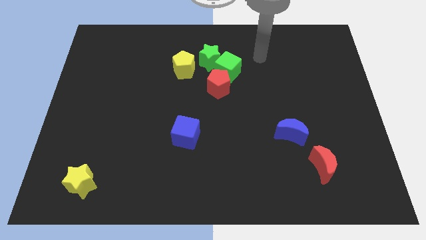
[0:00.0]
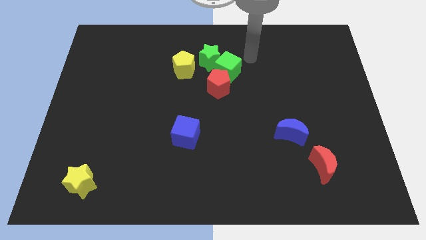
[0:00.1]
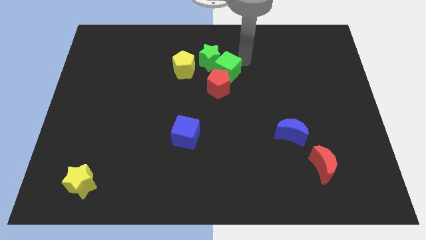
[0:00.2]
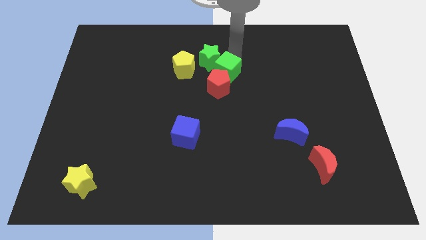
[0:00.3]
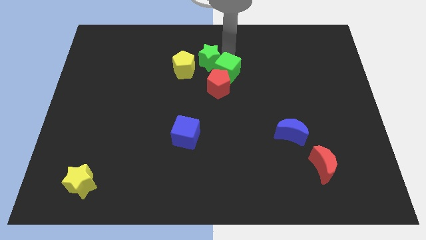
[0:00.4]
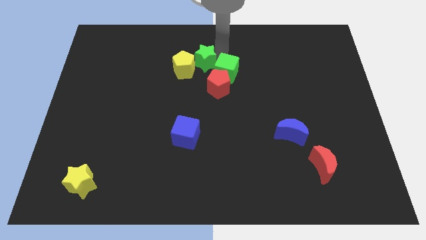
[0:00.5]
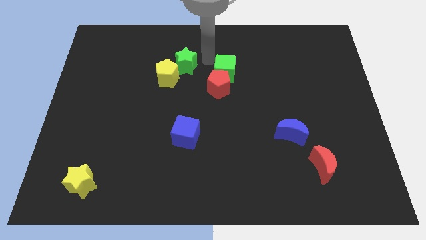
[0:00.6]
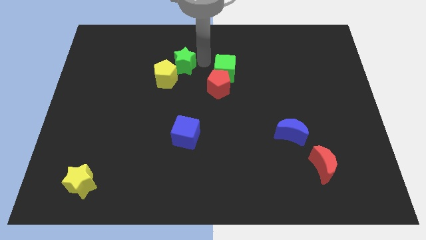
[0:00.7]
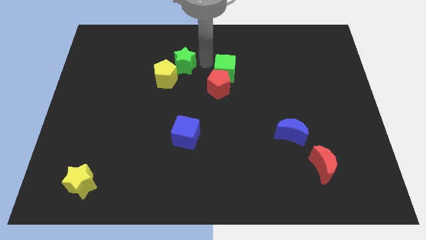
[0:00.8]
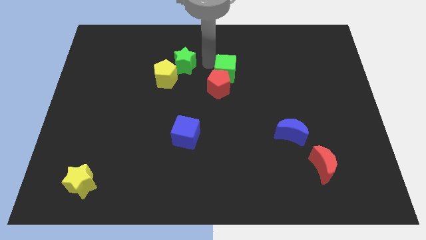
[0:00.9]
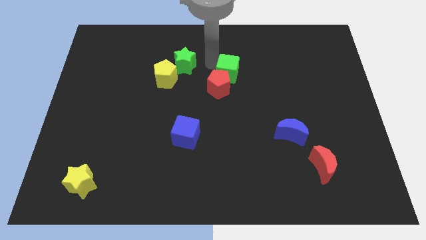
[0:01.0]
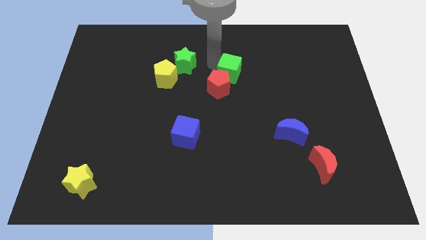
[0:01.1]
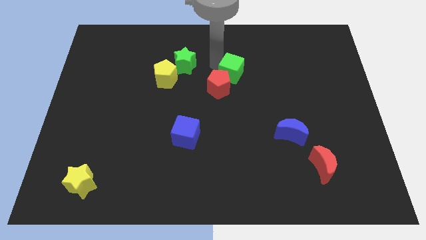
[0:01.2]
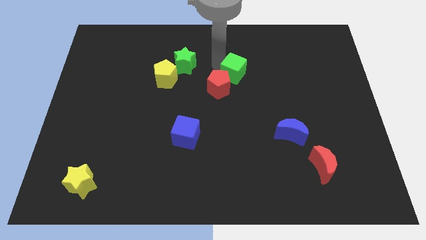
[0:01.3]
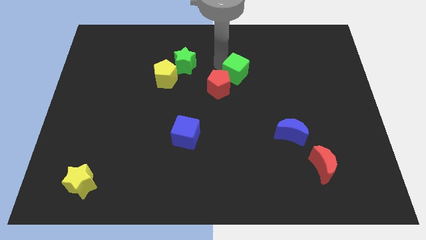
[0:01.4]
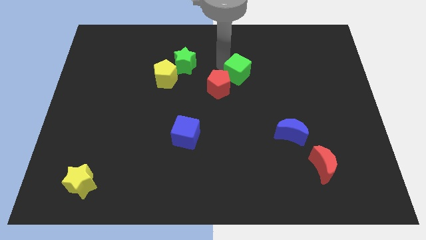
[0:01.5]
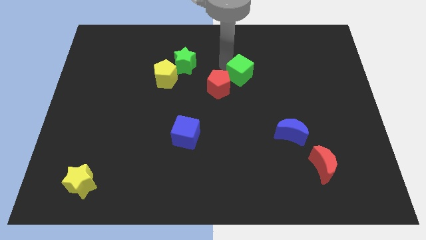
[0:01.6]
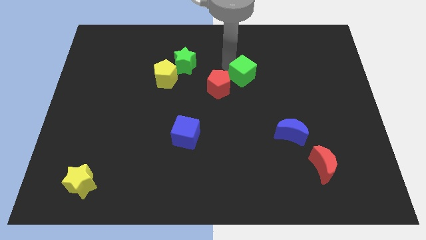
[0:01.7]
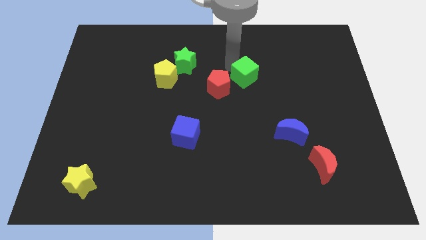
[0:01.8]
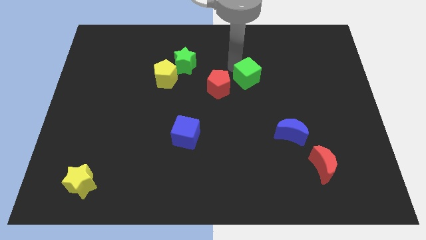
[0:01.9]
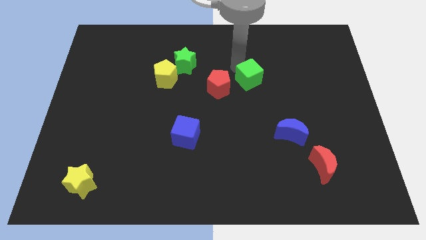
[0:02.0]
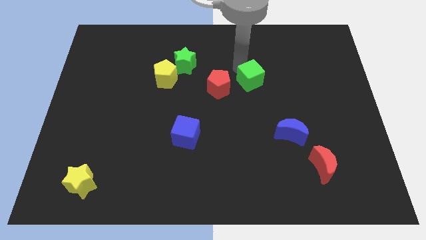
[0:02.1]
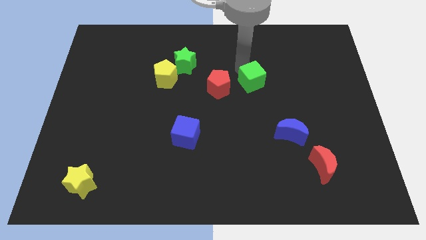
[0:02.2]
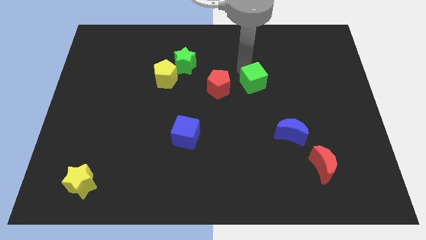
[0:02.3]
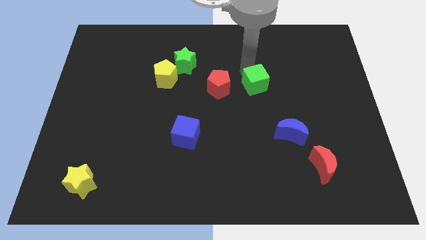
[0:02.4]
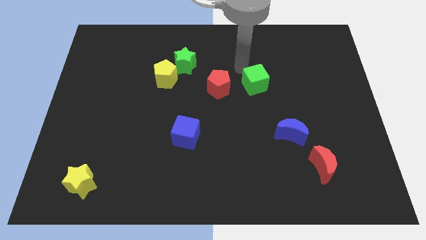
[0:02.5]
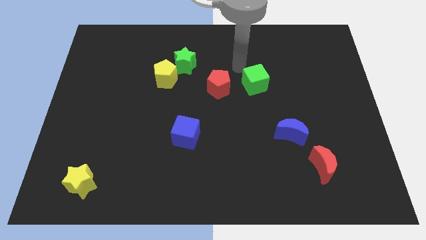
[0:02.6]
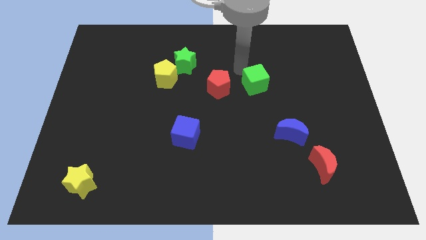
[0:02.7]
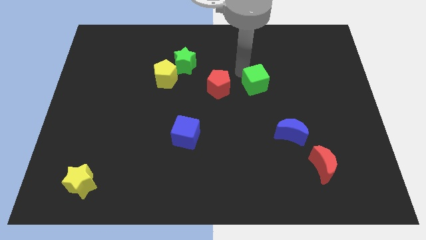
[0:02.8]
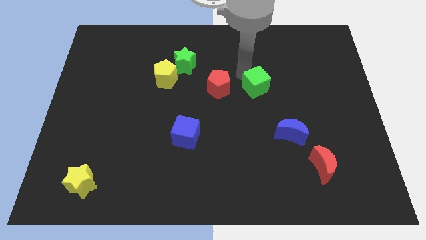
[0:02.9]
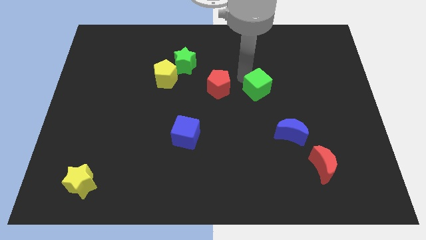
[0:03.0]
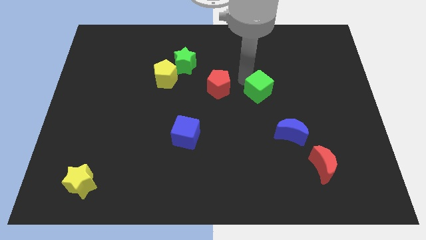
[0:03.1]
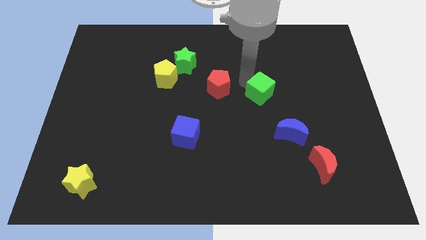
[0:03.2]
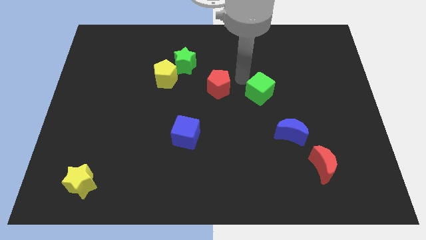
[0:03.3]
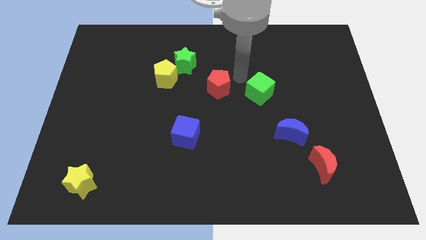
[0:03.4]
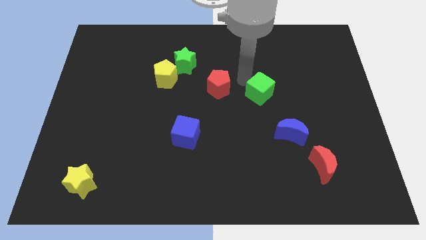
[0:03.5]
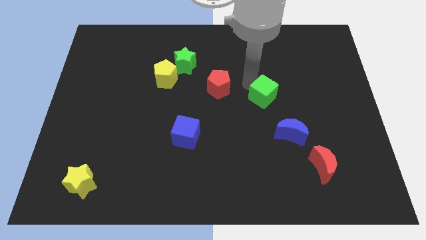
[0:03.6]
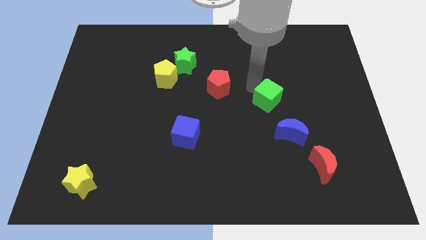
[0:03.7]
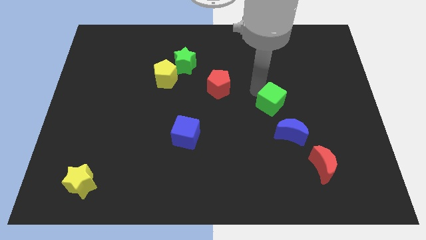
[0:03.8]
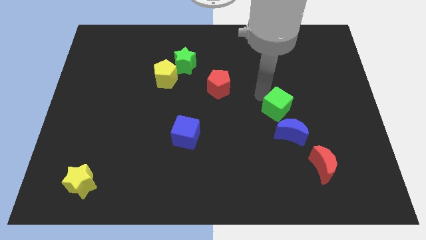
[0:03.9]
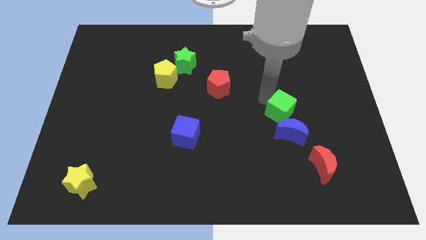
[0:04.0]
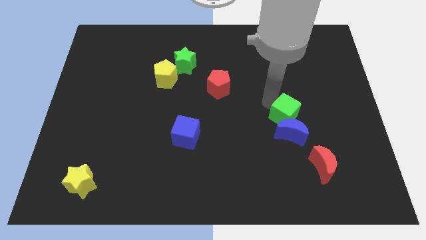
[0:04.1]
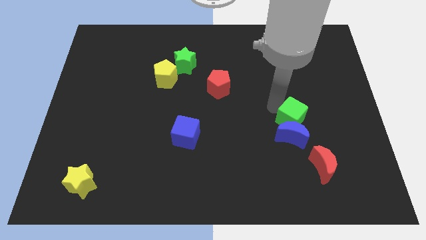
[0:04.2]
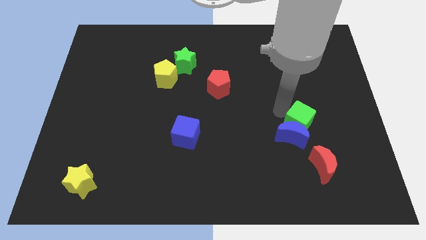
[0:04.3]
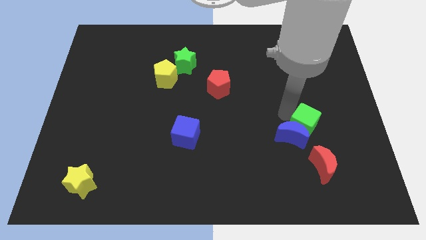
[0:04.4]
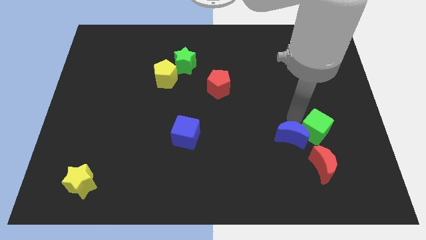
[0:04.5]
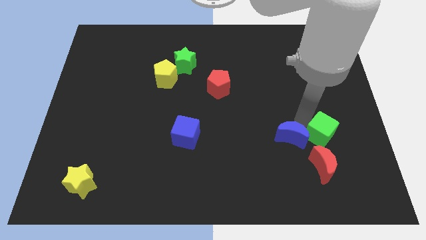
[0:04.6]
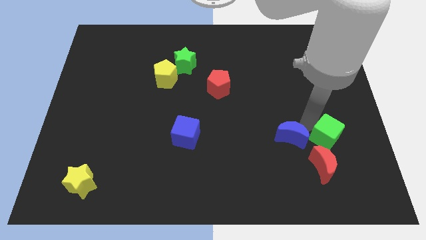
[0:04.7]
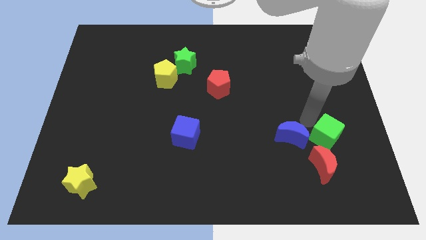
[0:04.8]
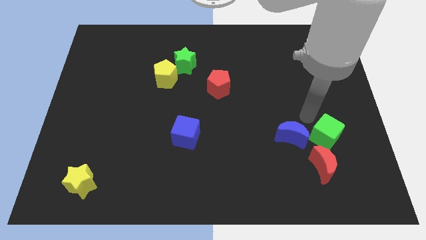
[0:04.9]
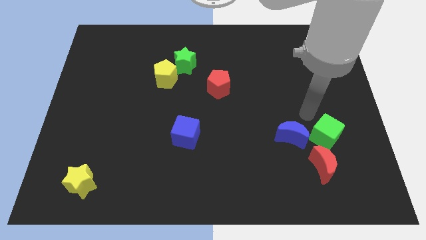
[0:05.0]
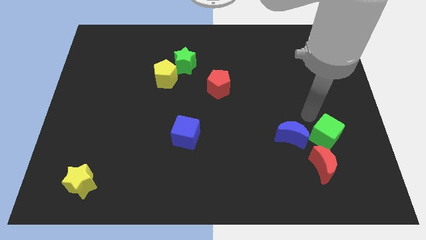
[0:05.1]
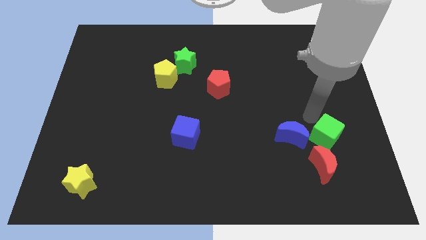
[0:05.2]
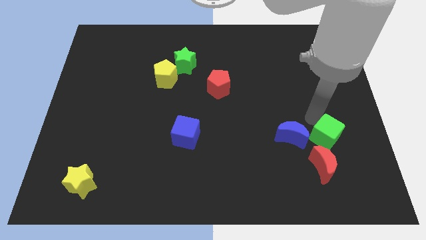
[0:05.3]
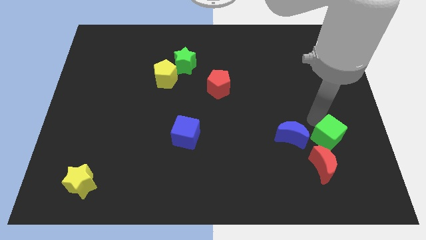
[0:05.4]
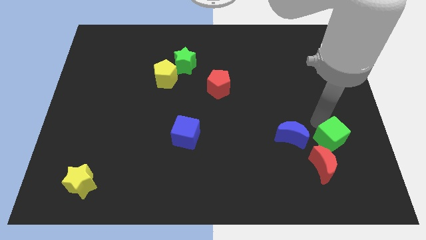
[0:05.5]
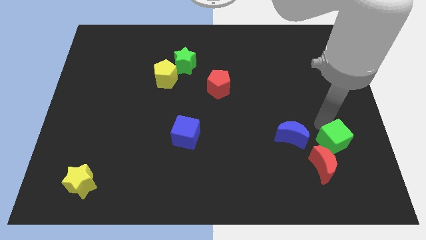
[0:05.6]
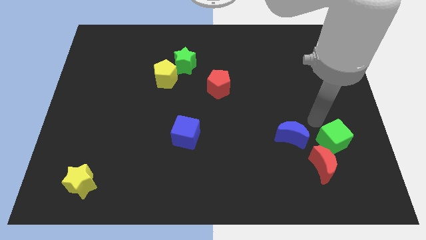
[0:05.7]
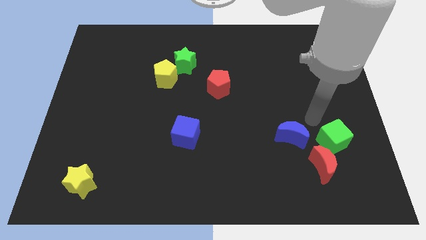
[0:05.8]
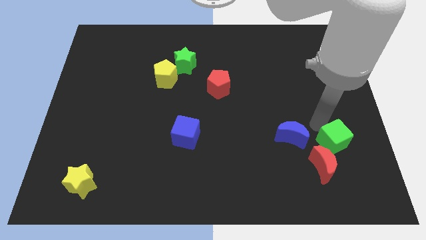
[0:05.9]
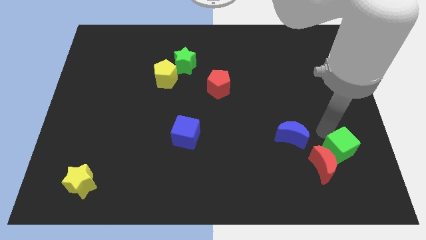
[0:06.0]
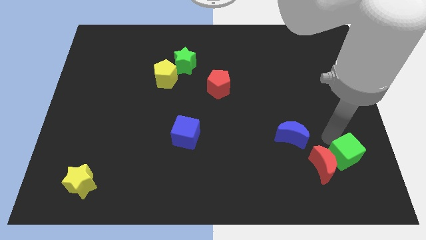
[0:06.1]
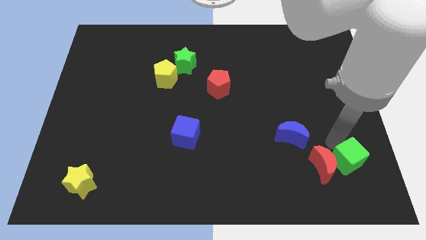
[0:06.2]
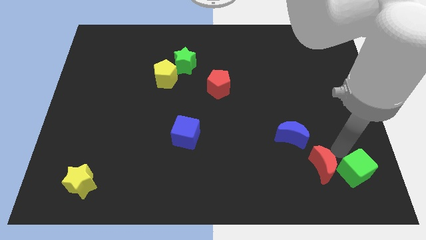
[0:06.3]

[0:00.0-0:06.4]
put the green cube to the bottom right of the board
